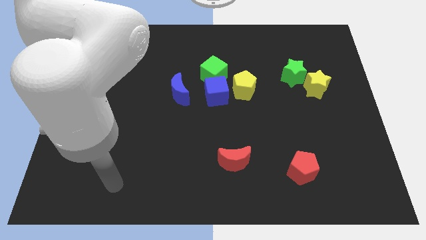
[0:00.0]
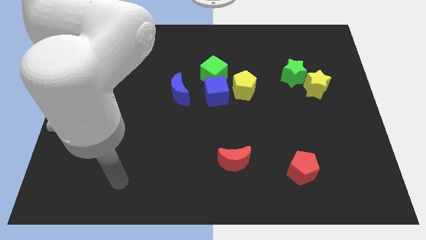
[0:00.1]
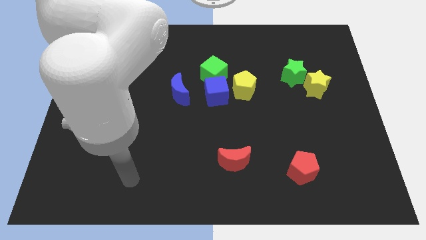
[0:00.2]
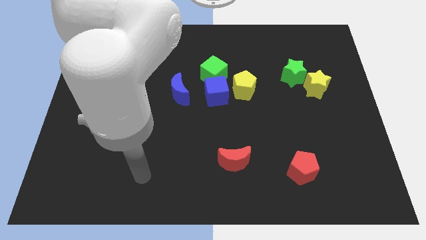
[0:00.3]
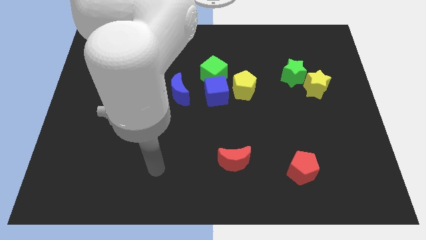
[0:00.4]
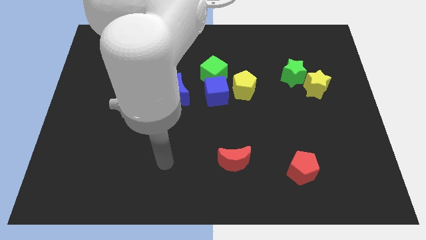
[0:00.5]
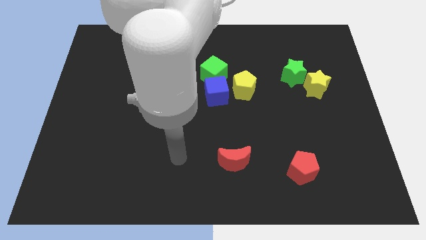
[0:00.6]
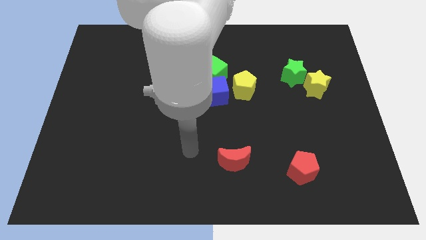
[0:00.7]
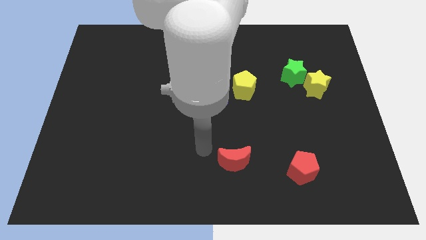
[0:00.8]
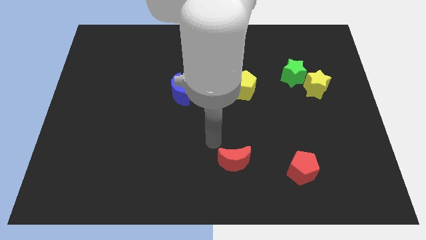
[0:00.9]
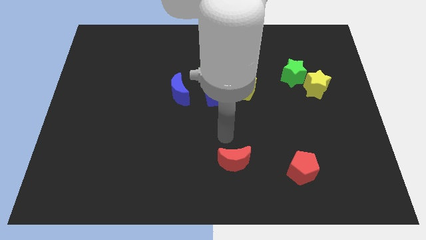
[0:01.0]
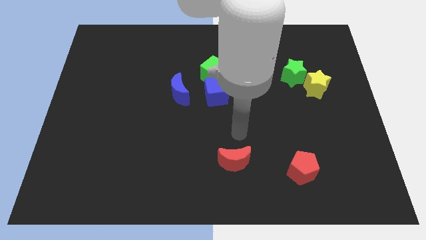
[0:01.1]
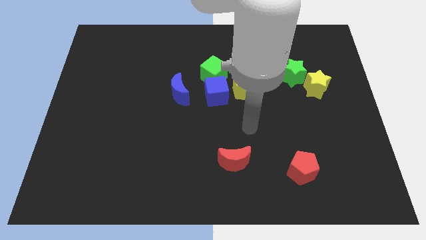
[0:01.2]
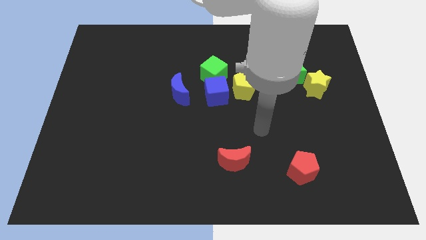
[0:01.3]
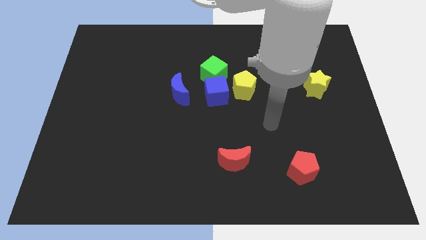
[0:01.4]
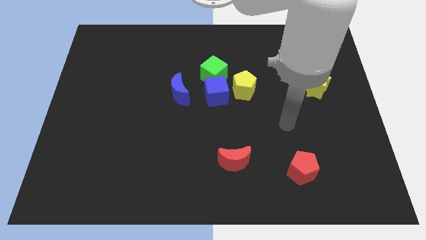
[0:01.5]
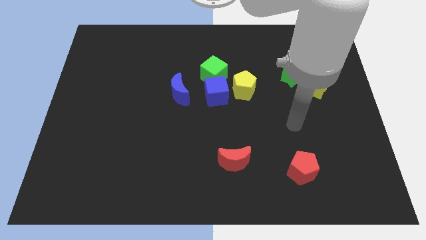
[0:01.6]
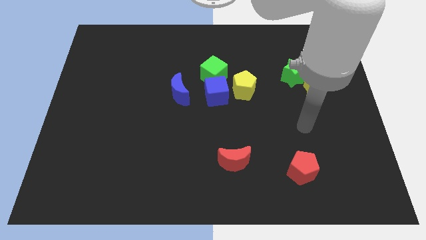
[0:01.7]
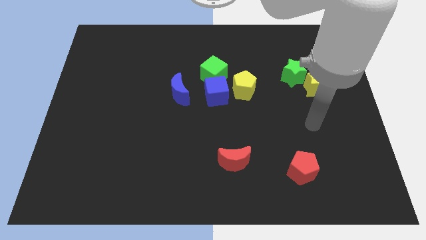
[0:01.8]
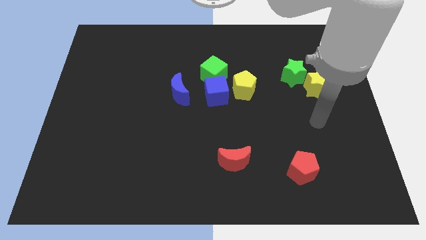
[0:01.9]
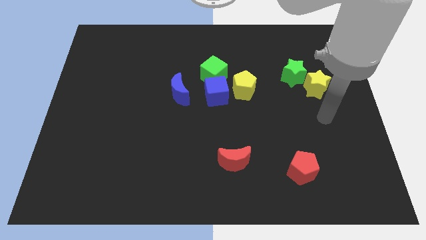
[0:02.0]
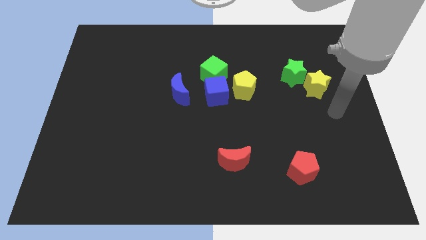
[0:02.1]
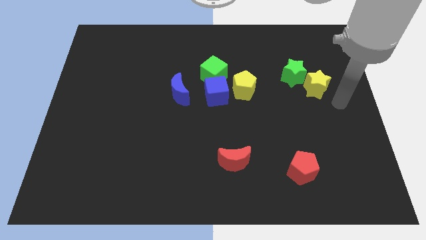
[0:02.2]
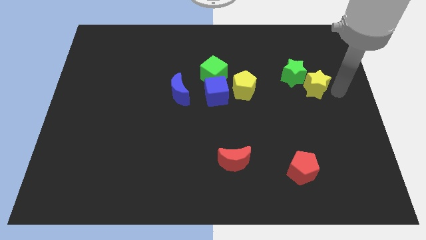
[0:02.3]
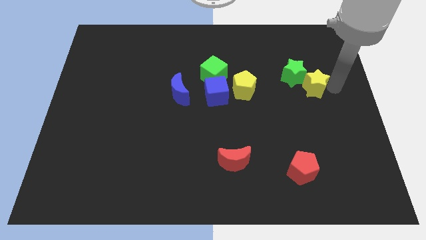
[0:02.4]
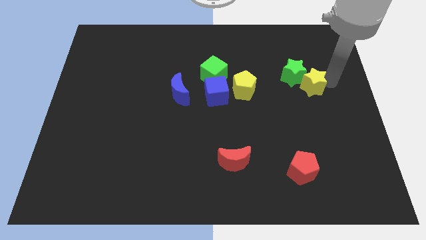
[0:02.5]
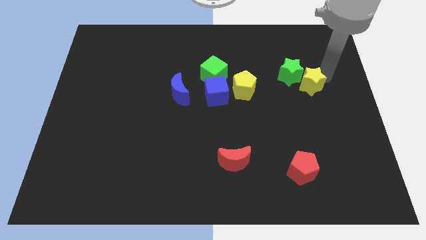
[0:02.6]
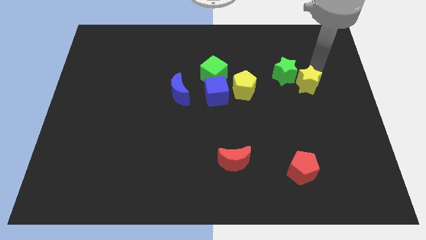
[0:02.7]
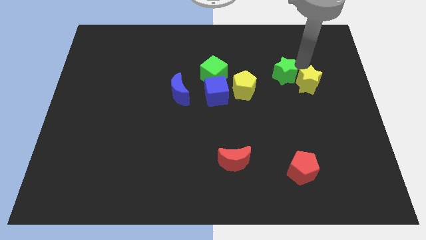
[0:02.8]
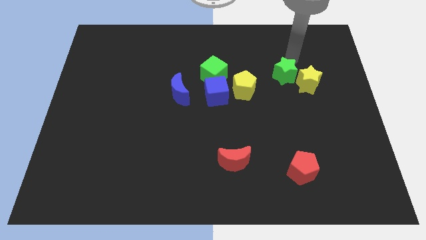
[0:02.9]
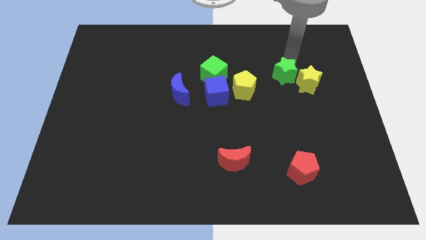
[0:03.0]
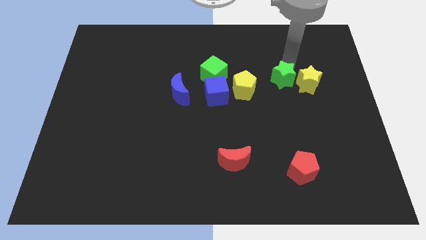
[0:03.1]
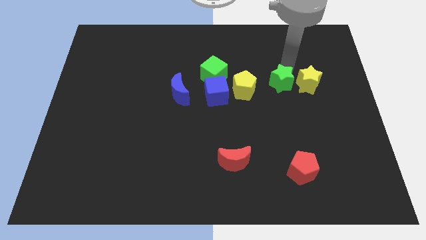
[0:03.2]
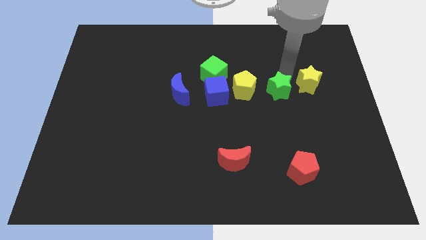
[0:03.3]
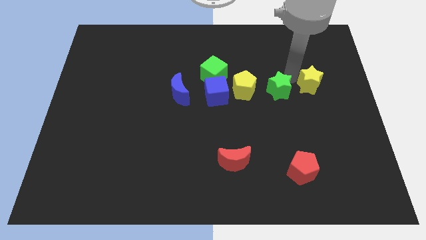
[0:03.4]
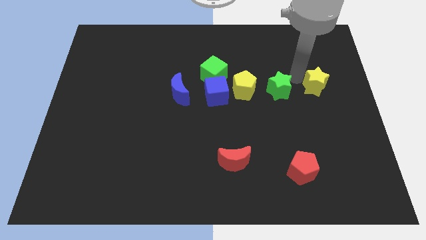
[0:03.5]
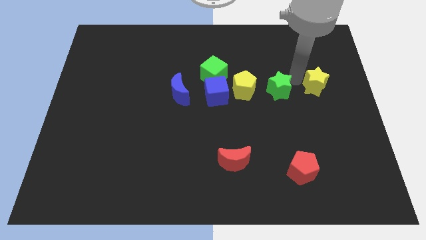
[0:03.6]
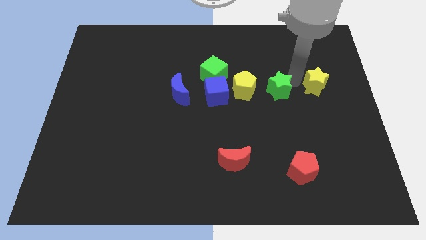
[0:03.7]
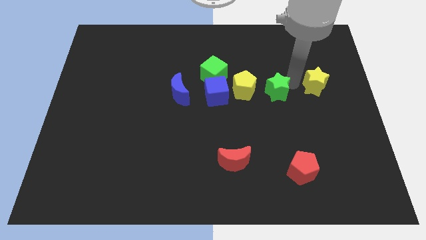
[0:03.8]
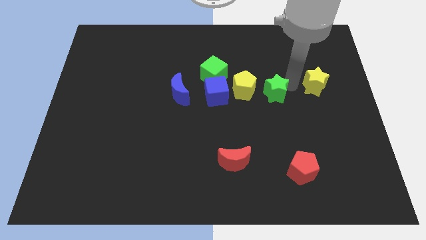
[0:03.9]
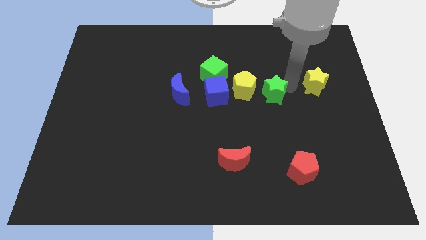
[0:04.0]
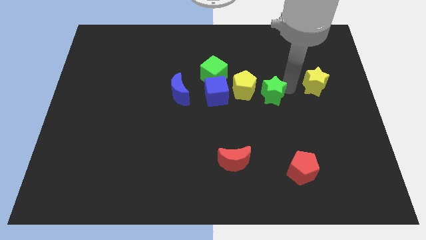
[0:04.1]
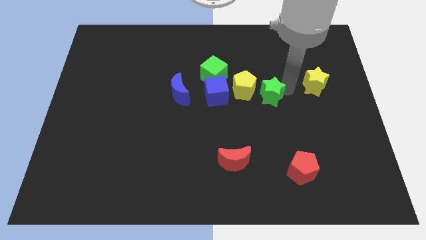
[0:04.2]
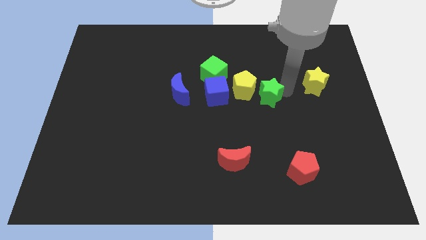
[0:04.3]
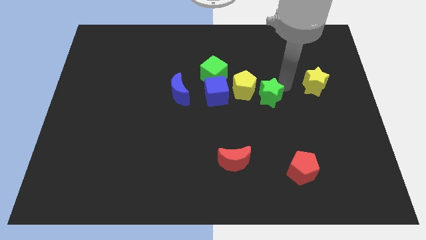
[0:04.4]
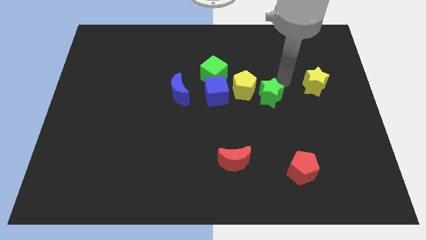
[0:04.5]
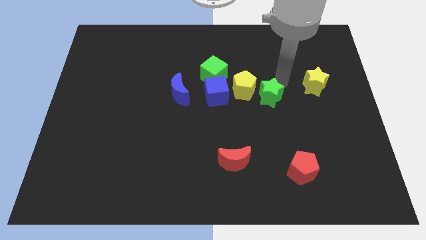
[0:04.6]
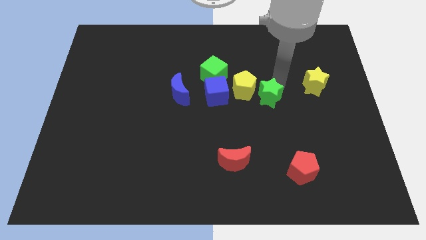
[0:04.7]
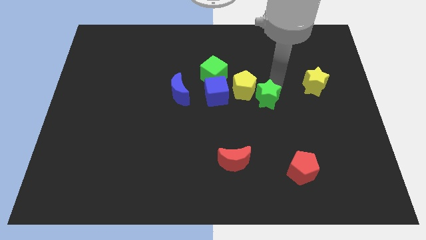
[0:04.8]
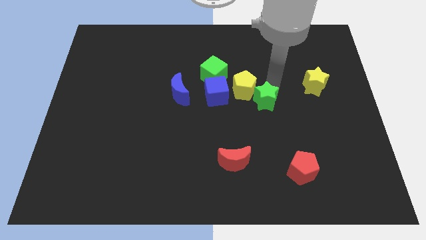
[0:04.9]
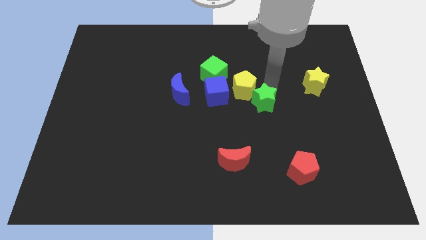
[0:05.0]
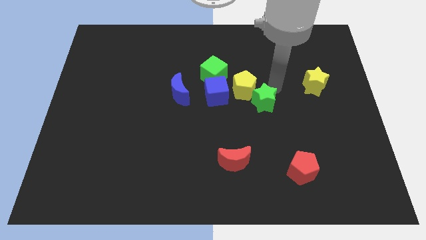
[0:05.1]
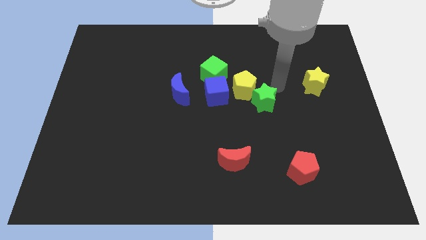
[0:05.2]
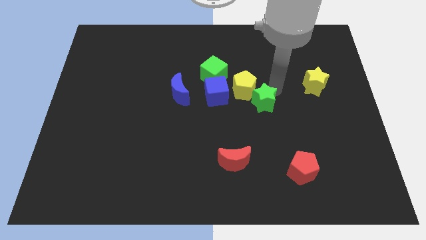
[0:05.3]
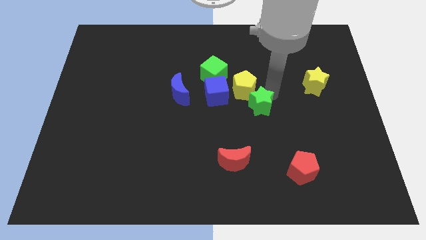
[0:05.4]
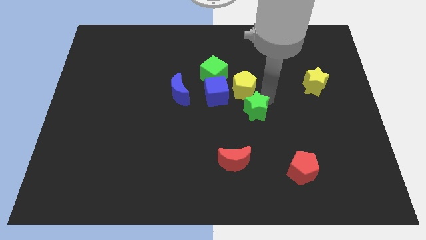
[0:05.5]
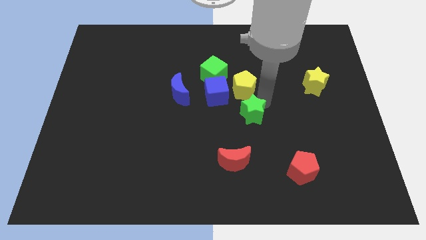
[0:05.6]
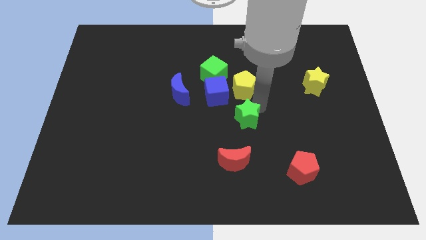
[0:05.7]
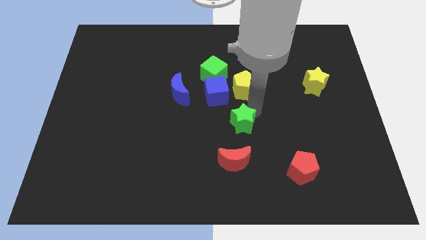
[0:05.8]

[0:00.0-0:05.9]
move the green star downwards and left diagonally

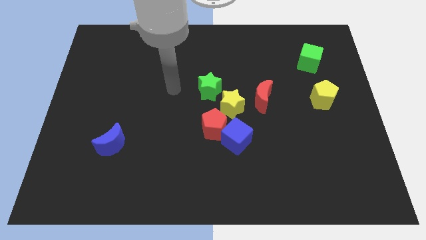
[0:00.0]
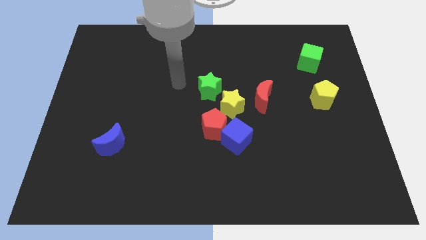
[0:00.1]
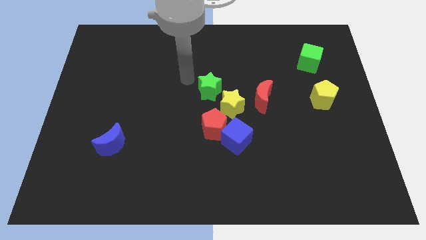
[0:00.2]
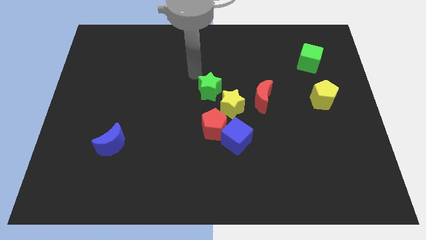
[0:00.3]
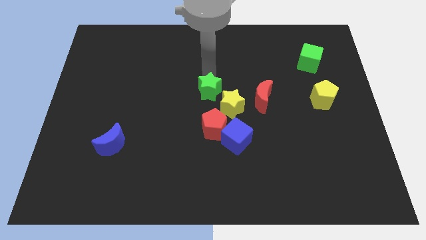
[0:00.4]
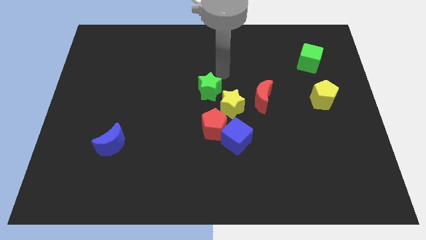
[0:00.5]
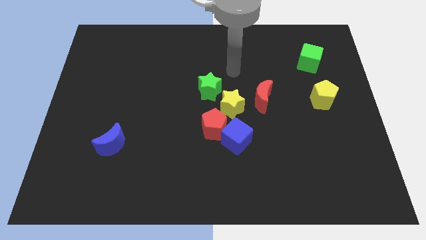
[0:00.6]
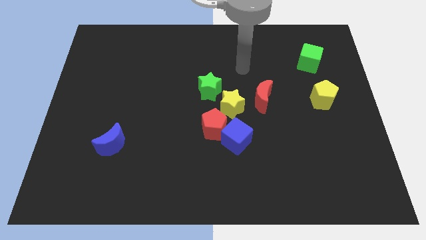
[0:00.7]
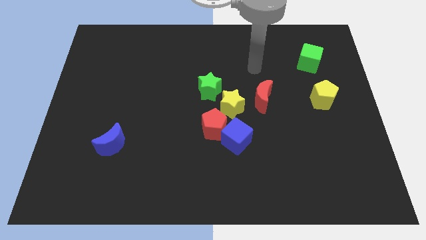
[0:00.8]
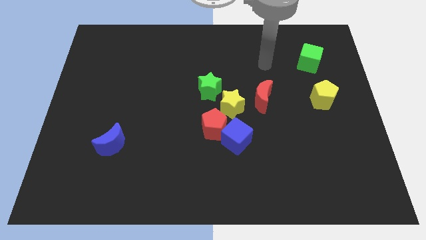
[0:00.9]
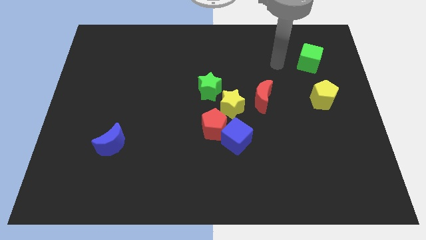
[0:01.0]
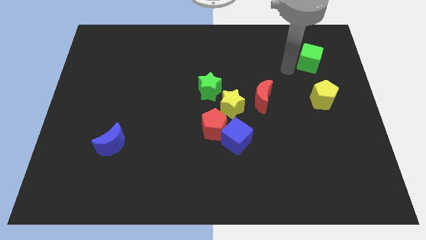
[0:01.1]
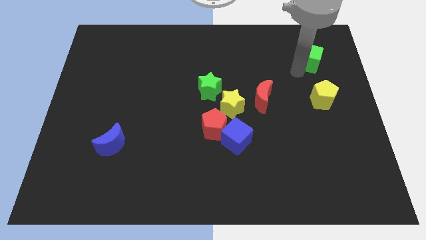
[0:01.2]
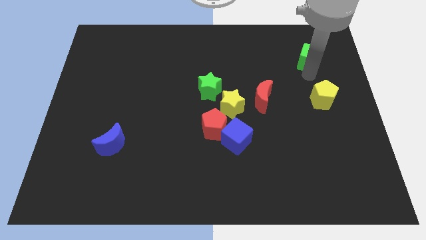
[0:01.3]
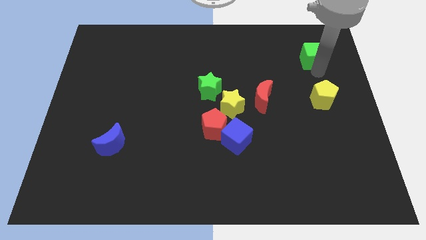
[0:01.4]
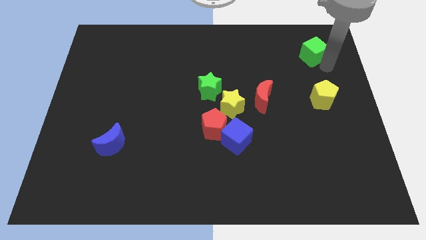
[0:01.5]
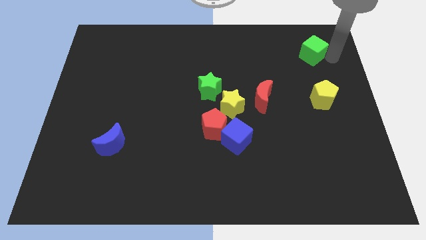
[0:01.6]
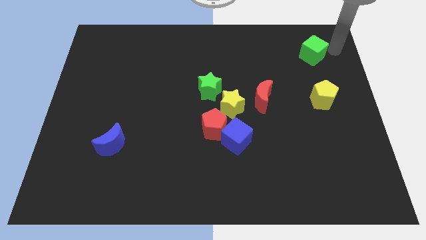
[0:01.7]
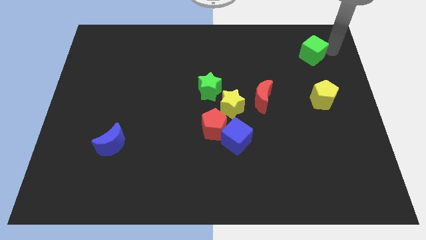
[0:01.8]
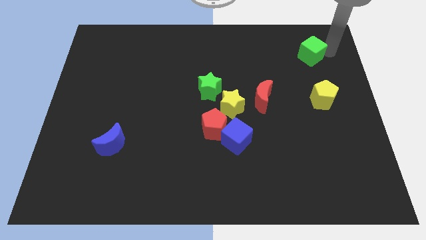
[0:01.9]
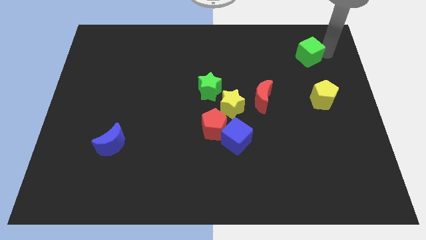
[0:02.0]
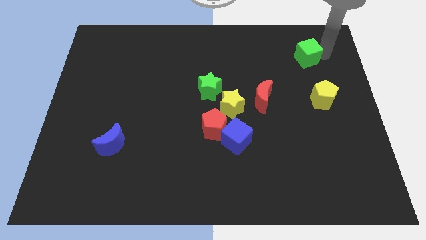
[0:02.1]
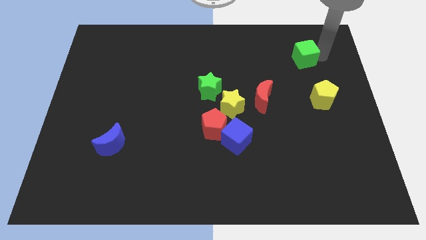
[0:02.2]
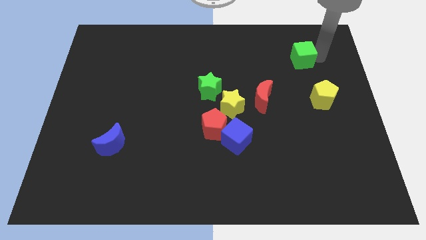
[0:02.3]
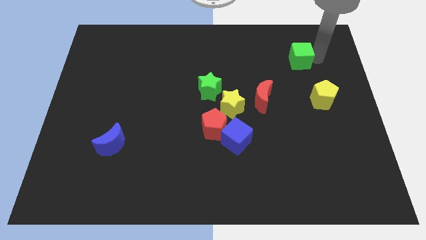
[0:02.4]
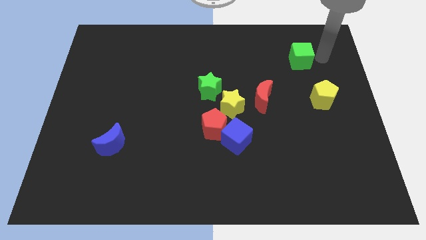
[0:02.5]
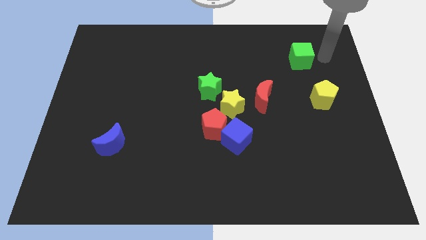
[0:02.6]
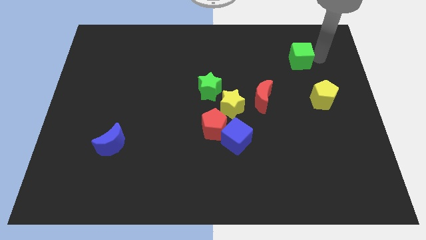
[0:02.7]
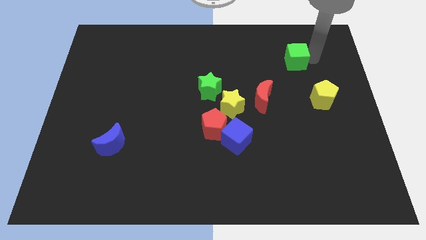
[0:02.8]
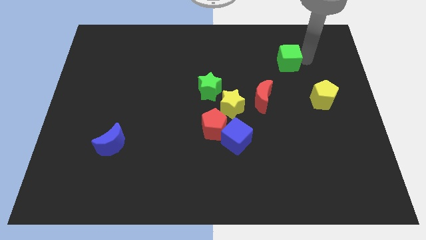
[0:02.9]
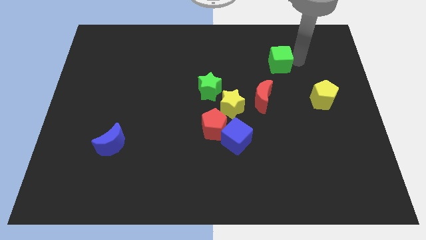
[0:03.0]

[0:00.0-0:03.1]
slide the green cube to the left a bit
